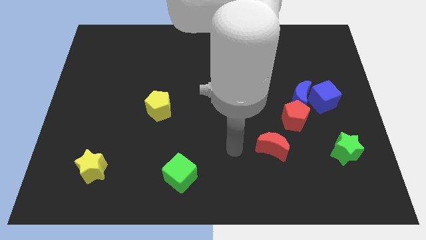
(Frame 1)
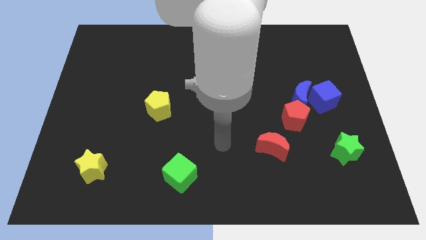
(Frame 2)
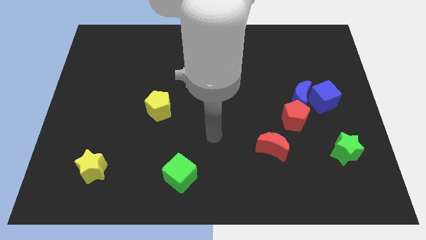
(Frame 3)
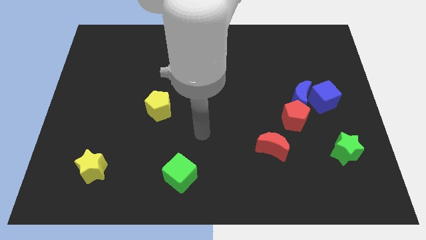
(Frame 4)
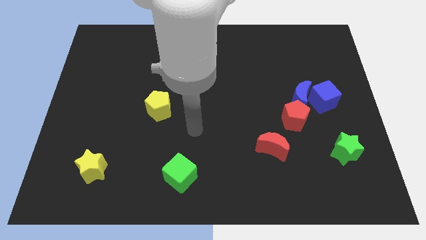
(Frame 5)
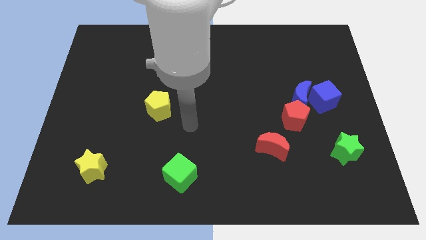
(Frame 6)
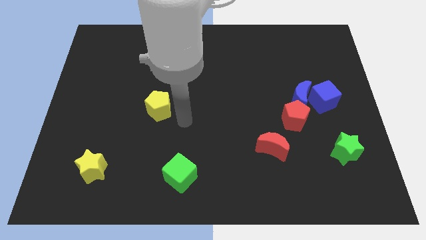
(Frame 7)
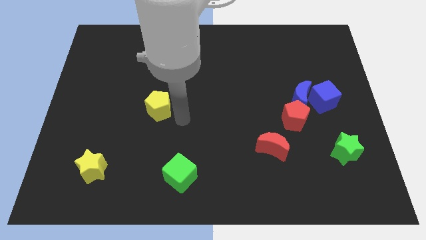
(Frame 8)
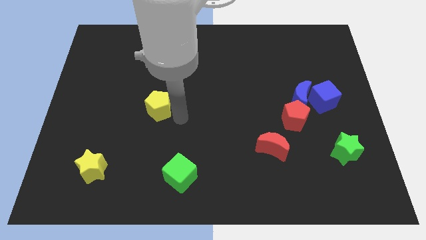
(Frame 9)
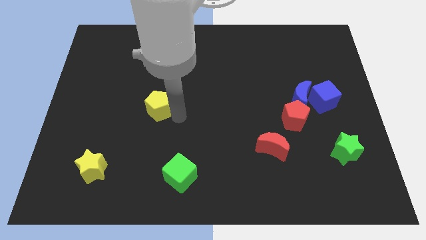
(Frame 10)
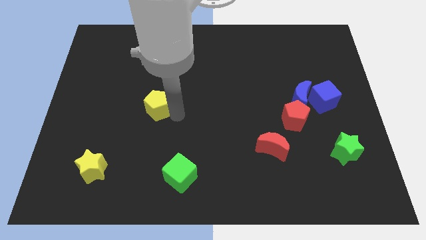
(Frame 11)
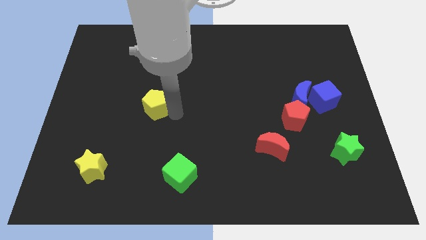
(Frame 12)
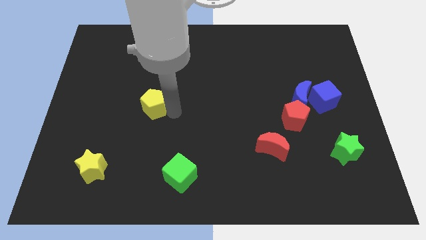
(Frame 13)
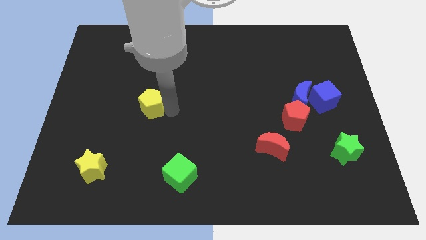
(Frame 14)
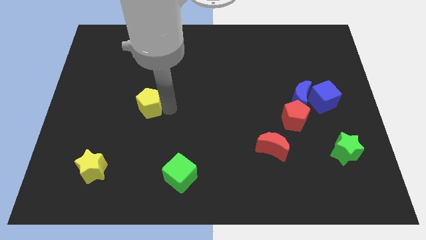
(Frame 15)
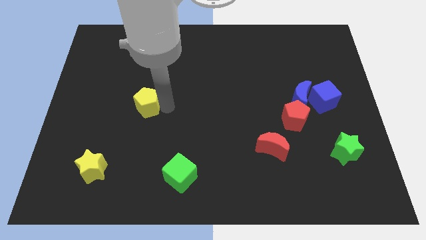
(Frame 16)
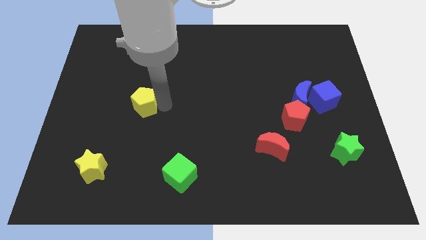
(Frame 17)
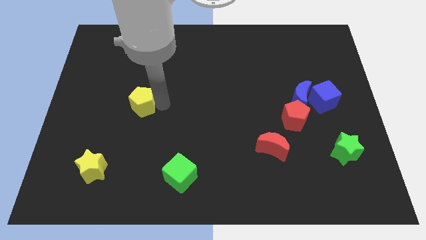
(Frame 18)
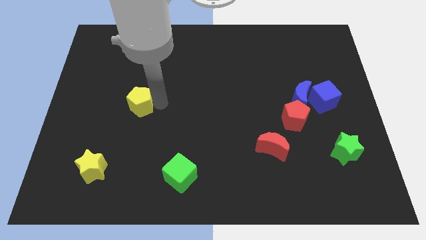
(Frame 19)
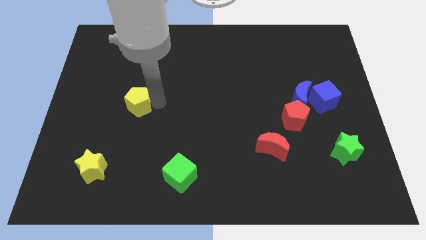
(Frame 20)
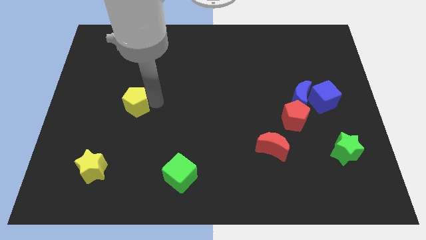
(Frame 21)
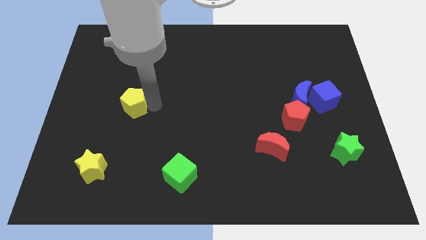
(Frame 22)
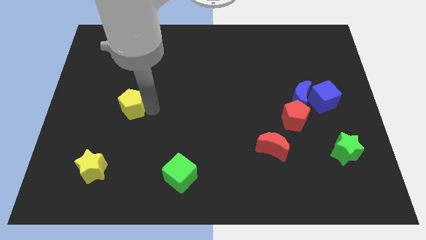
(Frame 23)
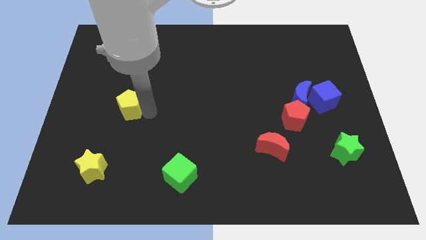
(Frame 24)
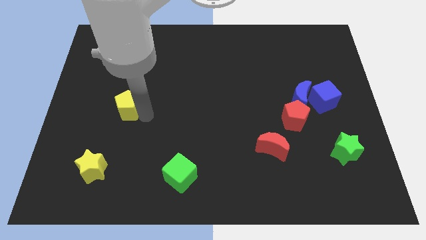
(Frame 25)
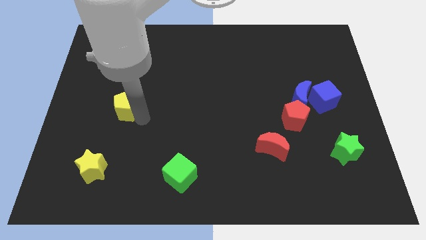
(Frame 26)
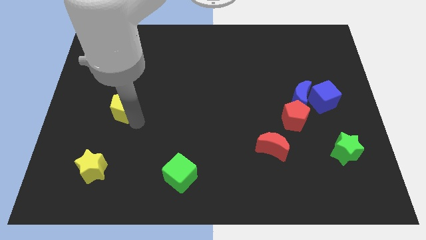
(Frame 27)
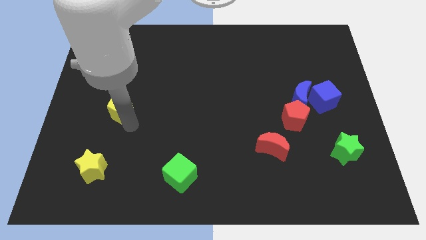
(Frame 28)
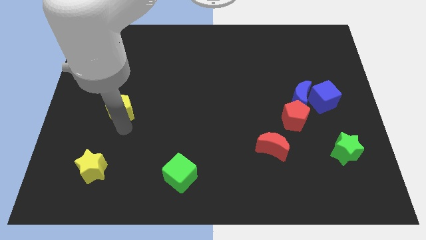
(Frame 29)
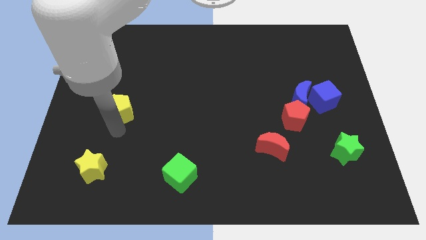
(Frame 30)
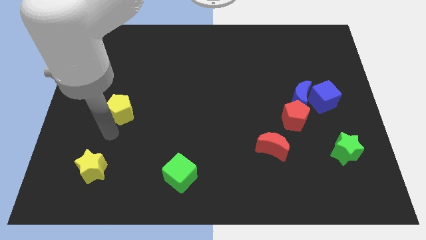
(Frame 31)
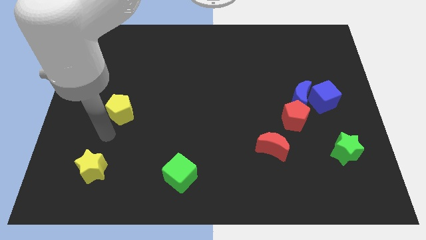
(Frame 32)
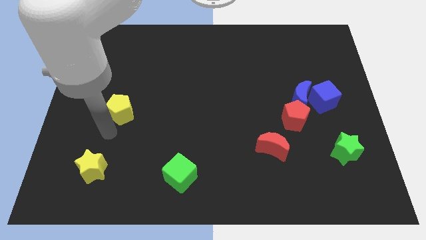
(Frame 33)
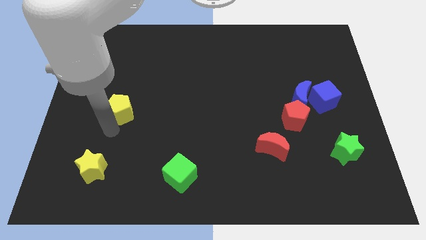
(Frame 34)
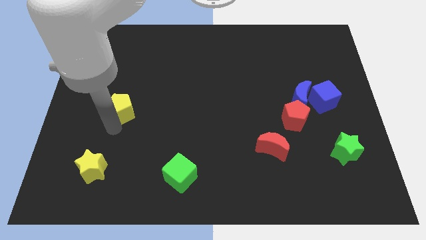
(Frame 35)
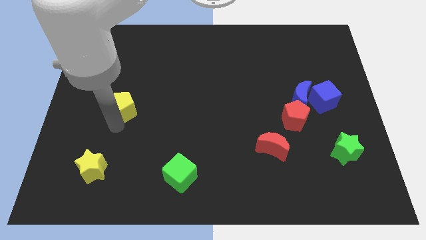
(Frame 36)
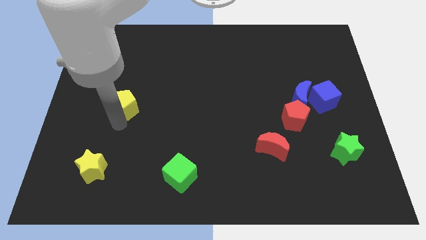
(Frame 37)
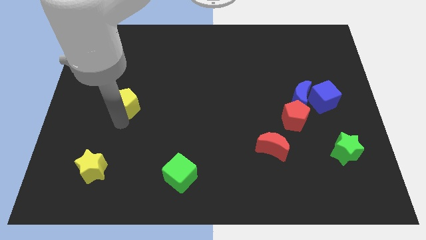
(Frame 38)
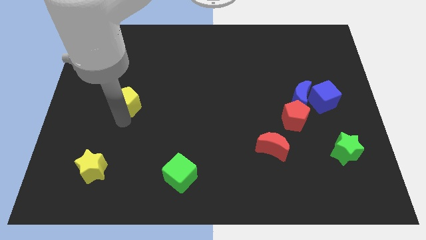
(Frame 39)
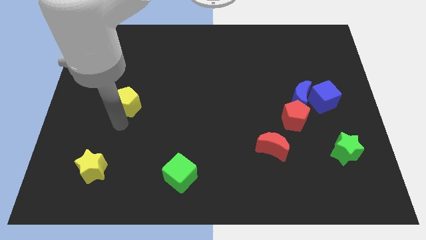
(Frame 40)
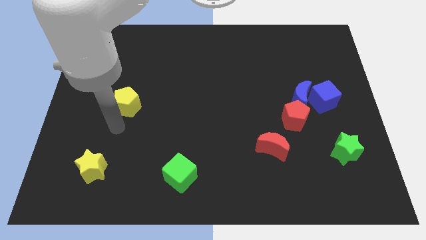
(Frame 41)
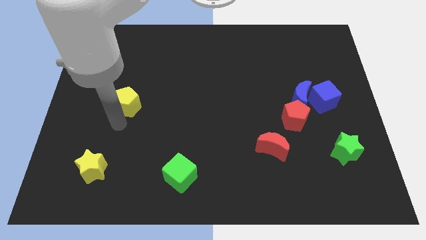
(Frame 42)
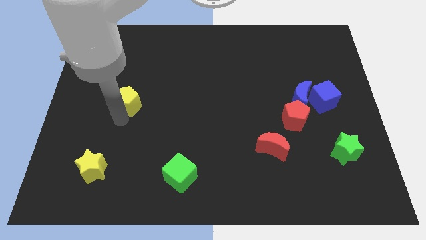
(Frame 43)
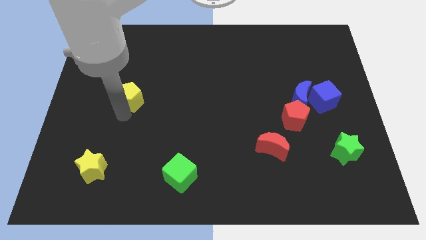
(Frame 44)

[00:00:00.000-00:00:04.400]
push the yellow pentagon a bit diagonally up and to the left

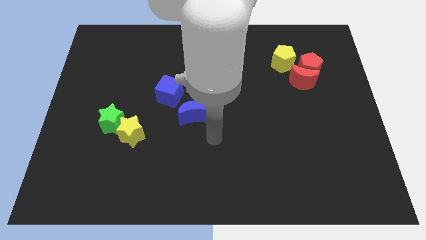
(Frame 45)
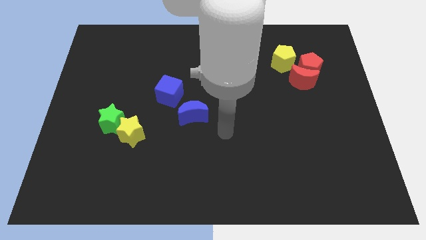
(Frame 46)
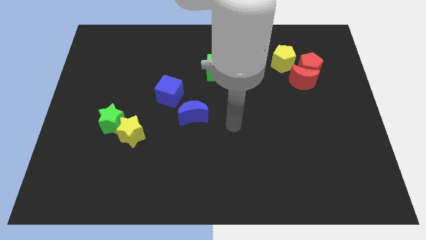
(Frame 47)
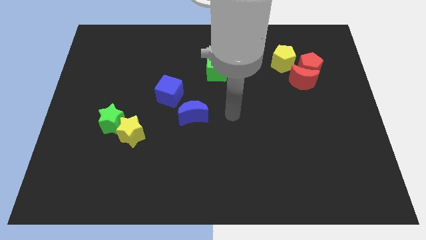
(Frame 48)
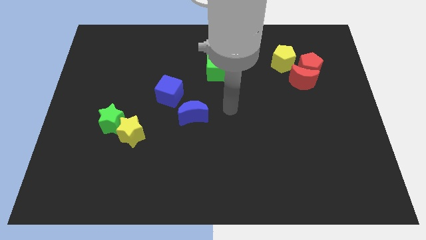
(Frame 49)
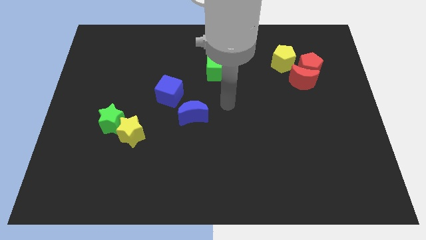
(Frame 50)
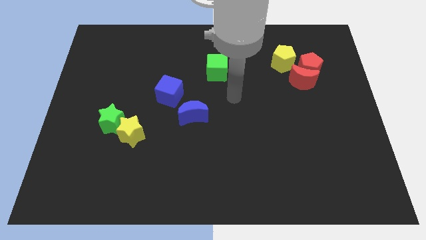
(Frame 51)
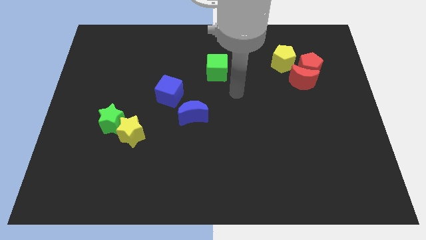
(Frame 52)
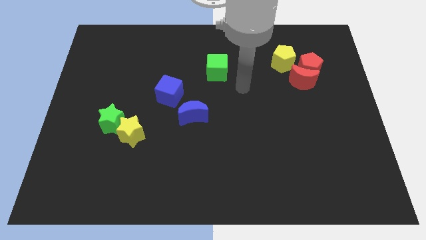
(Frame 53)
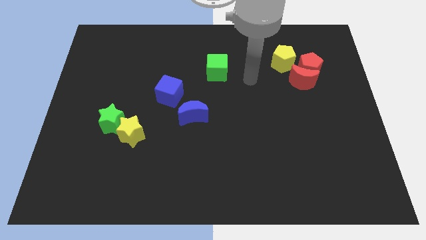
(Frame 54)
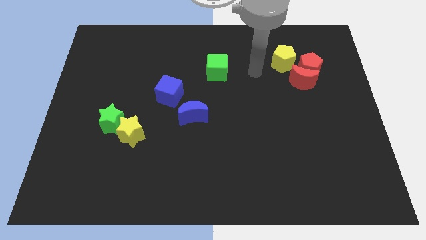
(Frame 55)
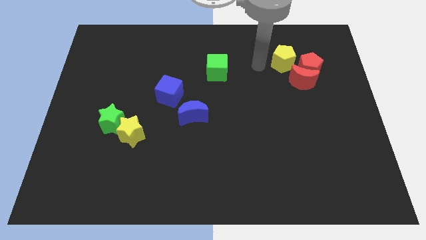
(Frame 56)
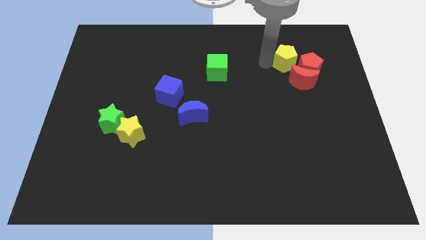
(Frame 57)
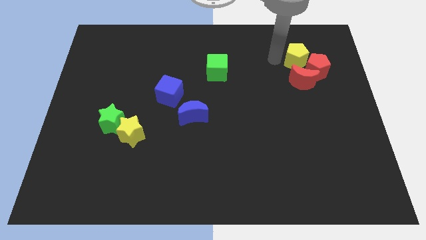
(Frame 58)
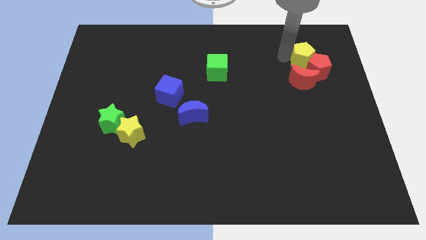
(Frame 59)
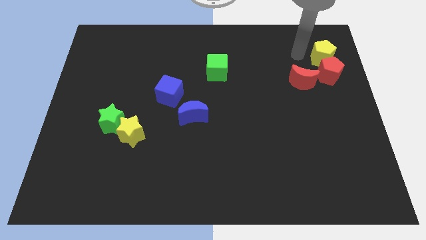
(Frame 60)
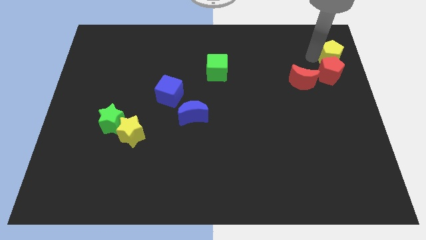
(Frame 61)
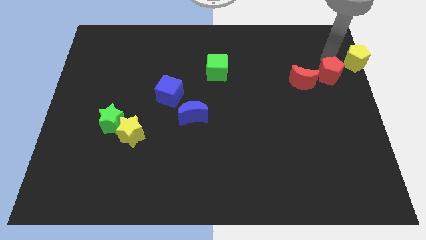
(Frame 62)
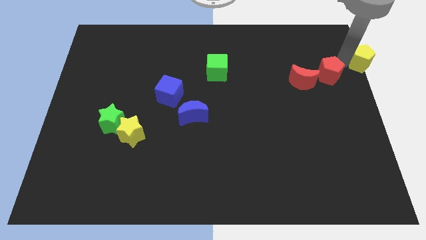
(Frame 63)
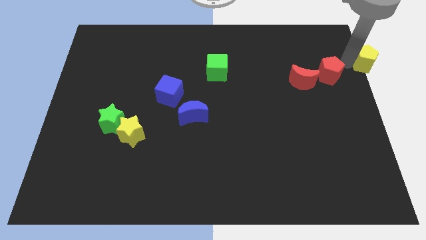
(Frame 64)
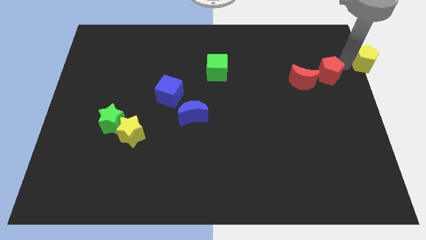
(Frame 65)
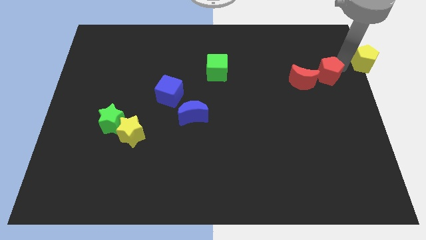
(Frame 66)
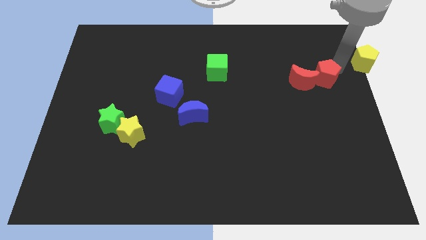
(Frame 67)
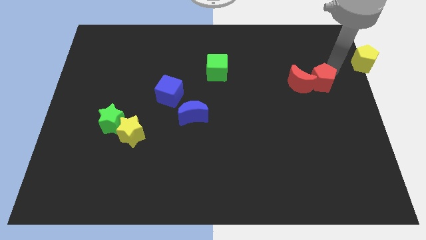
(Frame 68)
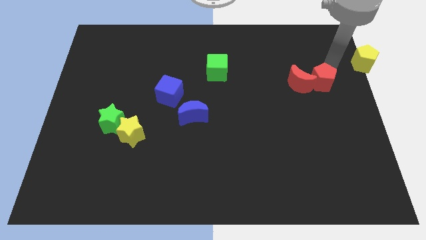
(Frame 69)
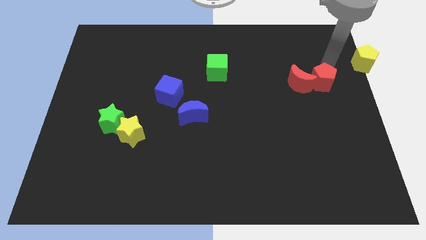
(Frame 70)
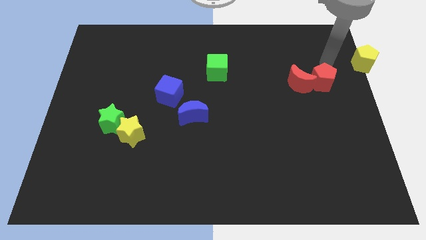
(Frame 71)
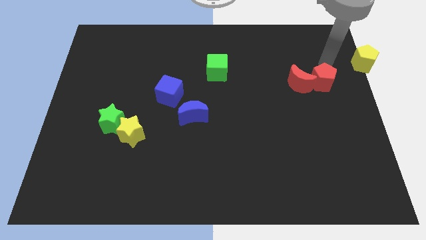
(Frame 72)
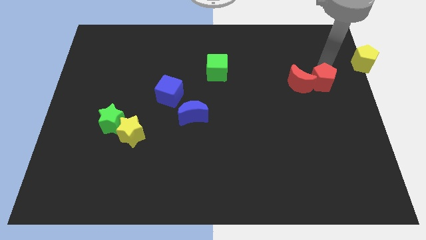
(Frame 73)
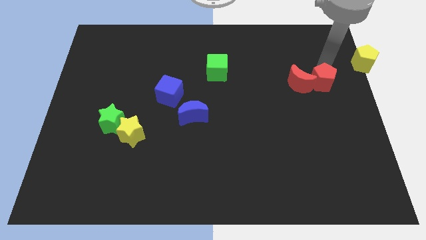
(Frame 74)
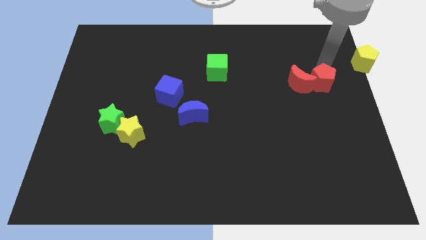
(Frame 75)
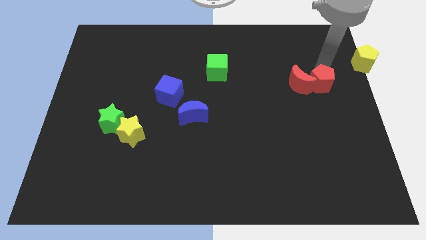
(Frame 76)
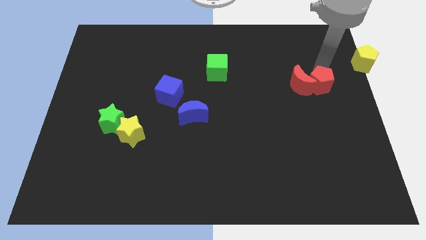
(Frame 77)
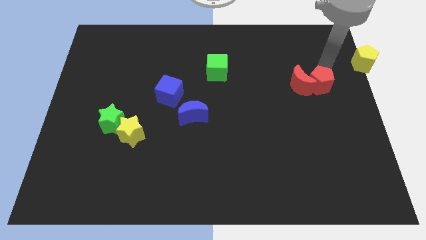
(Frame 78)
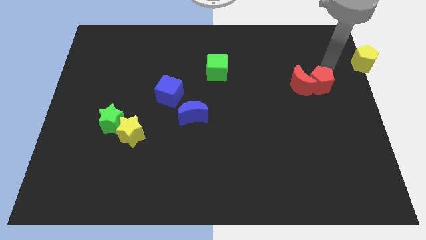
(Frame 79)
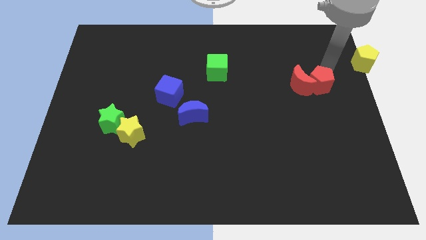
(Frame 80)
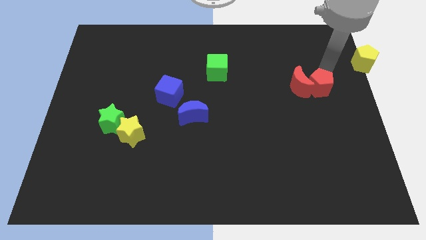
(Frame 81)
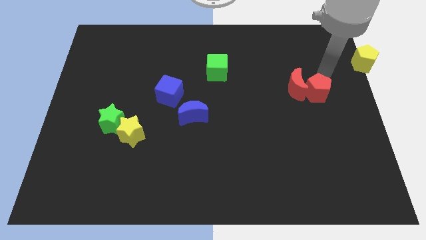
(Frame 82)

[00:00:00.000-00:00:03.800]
slightly move the red pentagon downwards
